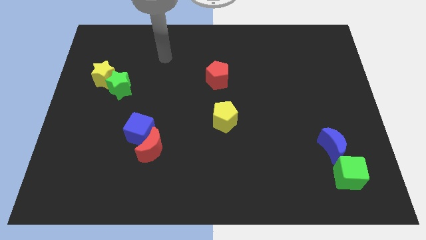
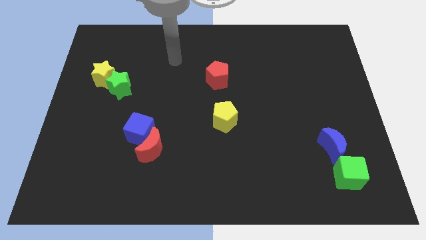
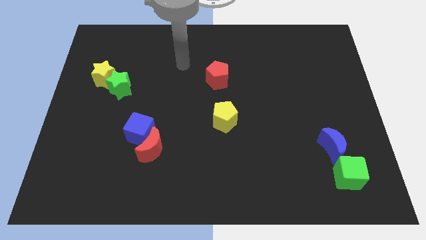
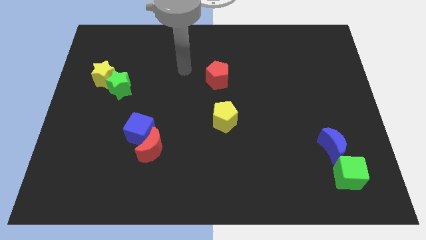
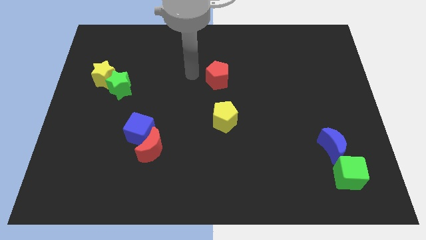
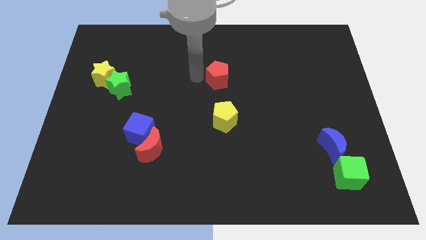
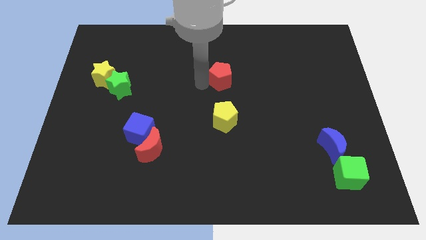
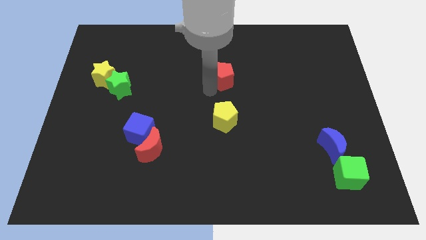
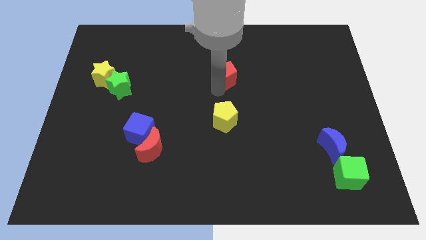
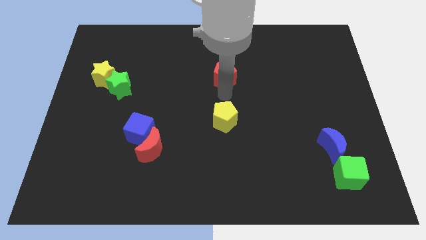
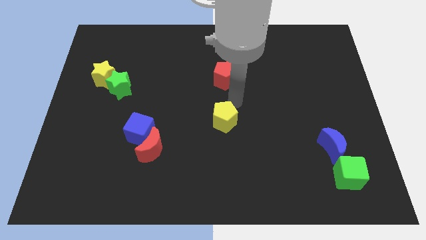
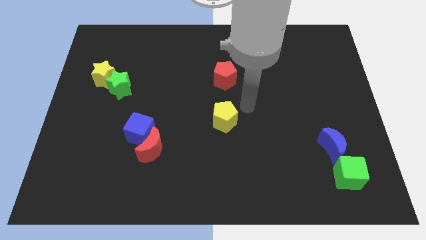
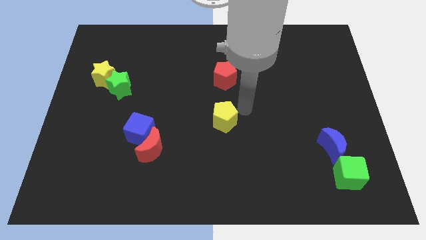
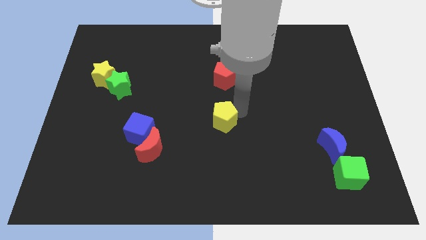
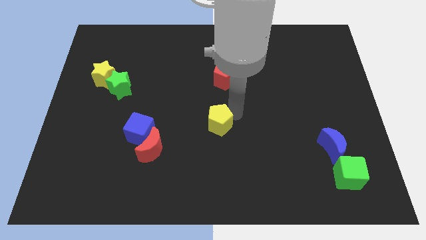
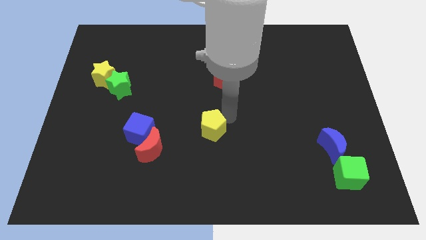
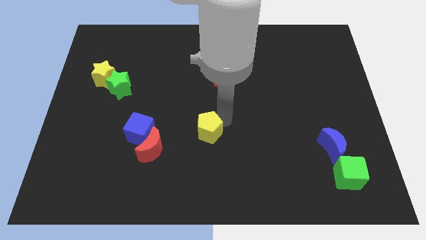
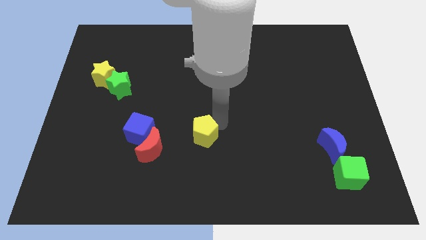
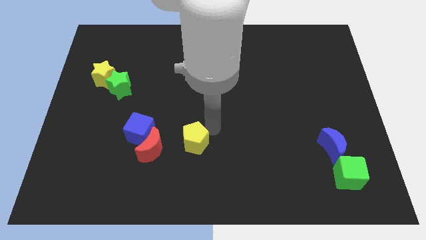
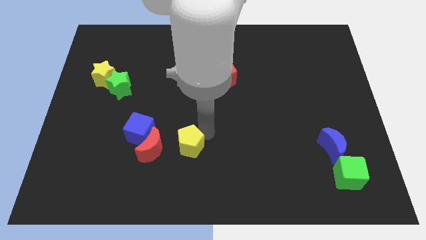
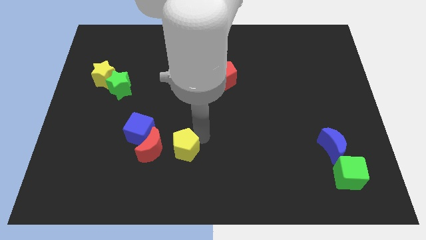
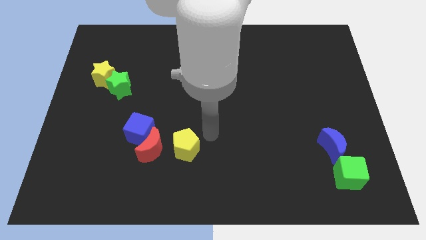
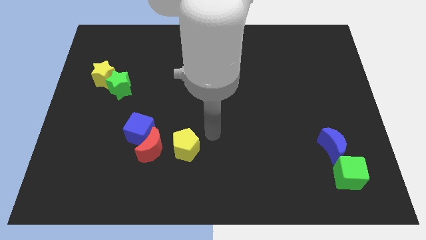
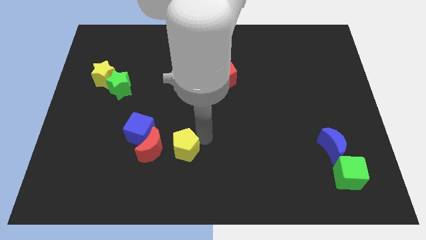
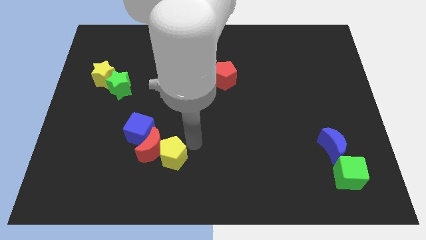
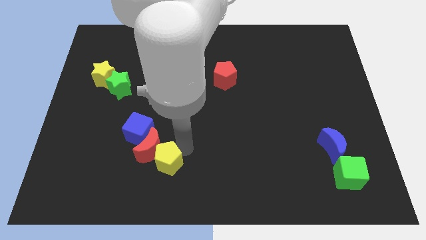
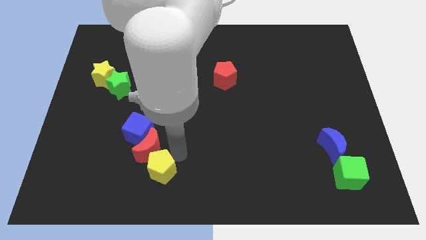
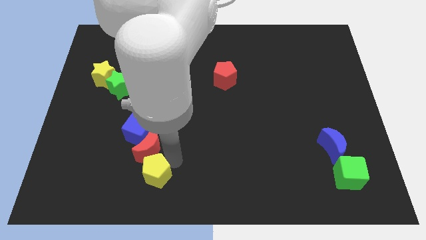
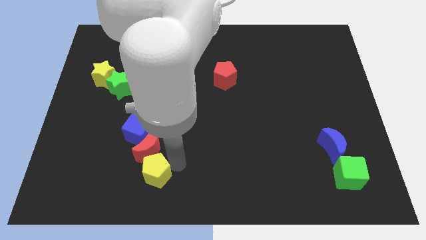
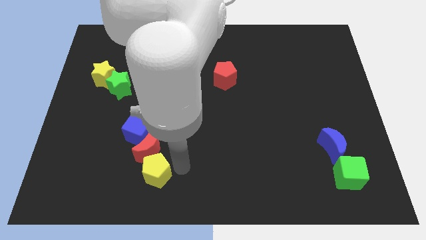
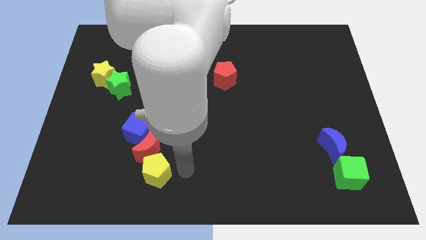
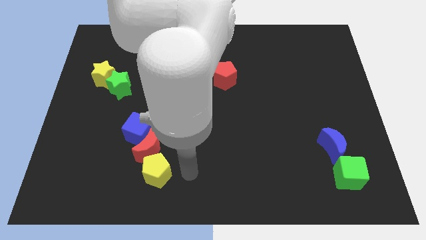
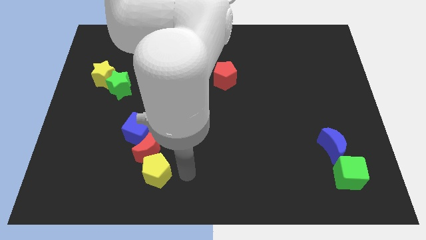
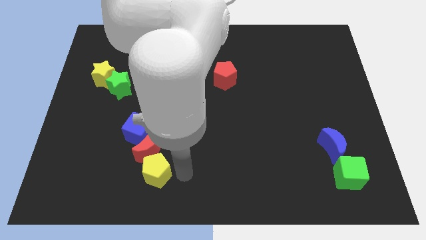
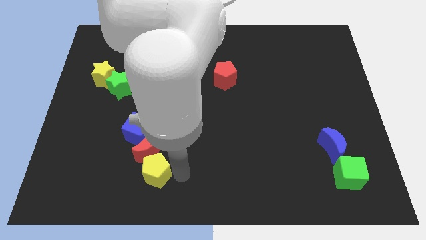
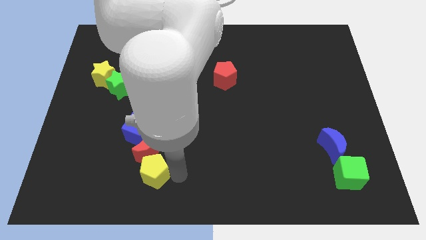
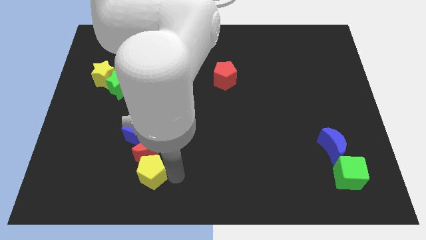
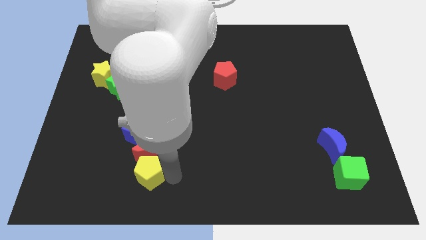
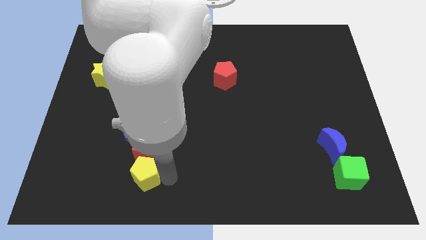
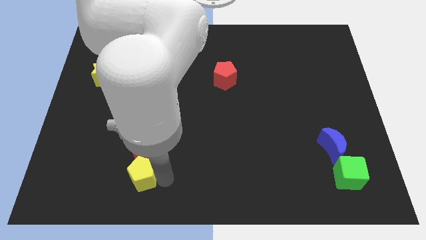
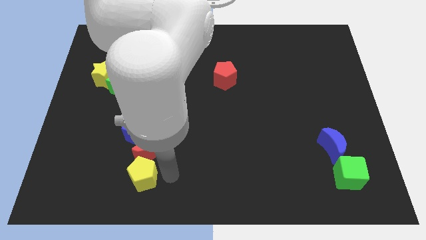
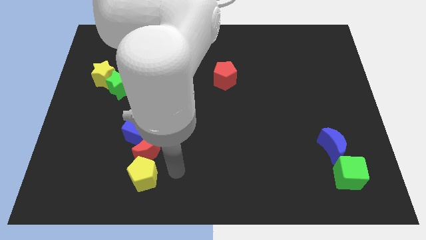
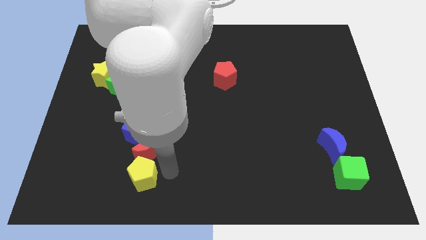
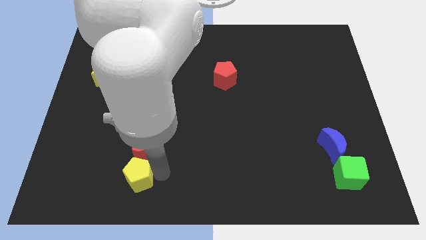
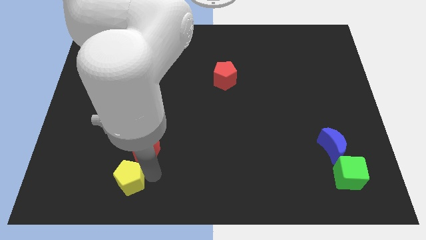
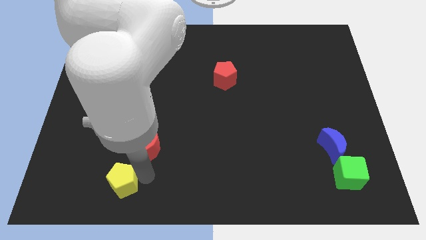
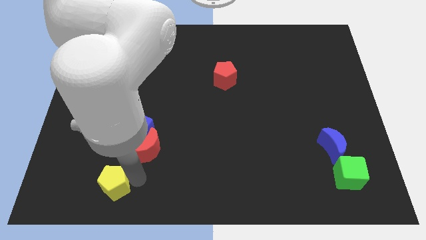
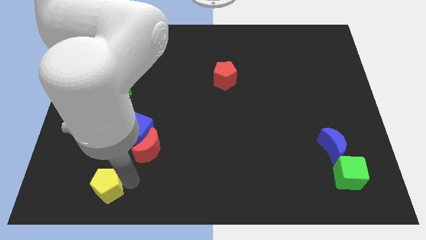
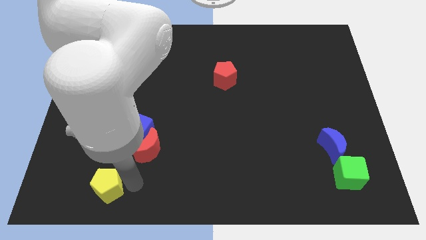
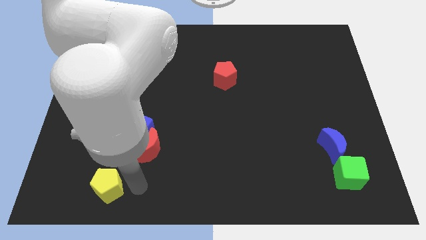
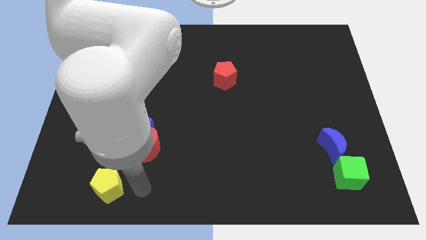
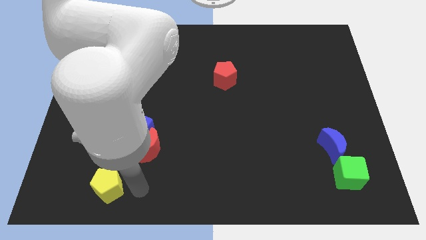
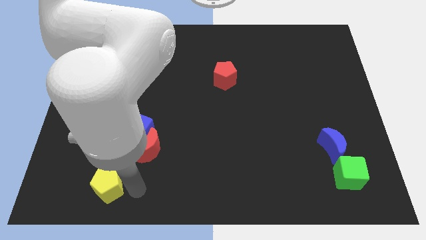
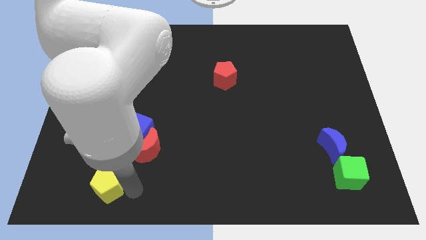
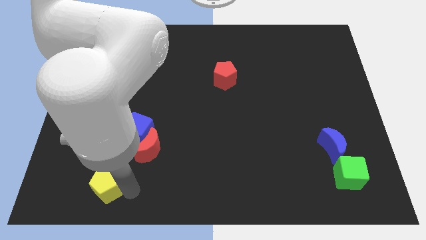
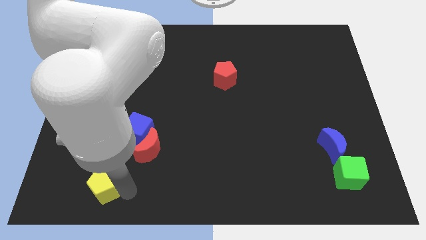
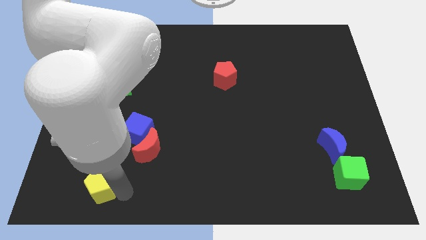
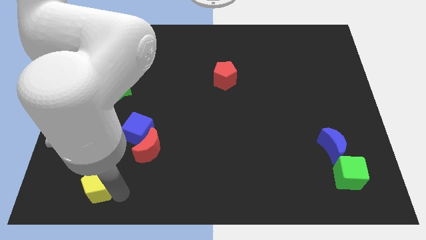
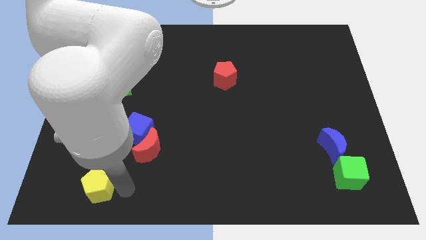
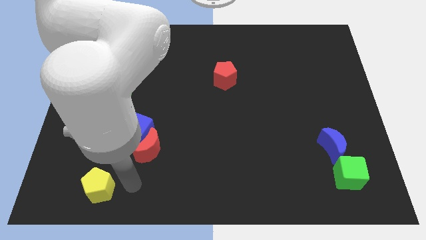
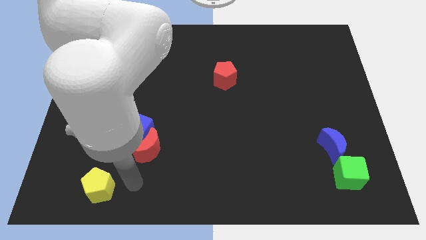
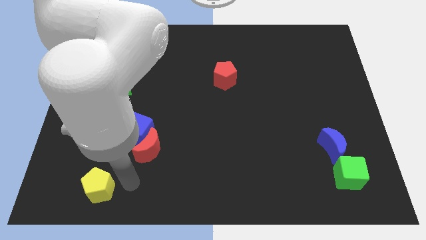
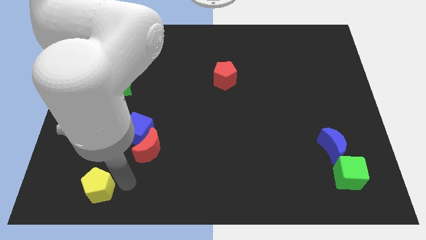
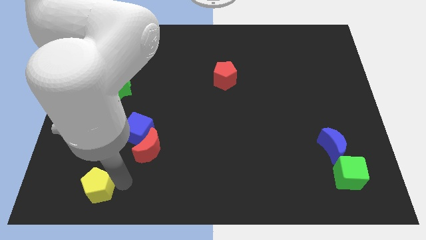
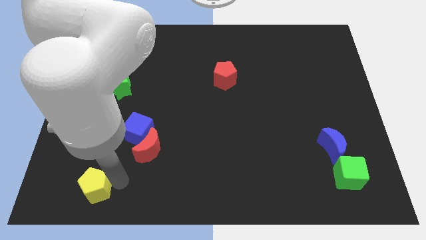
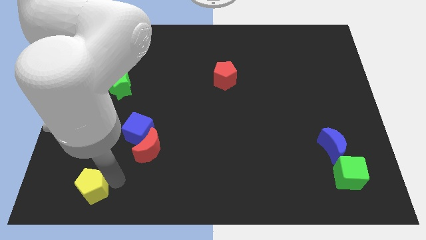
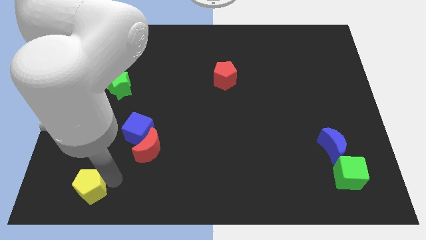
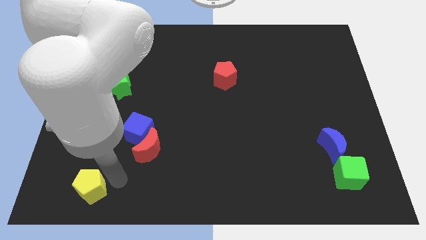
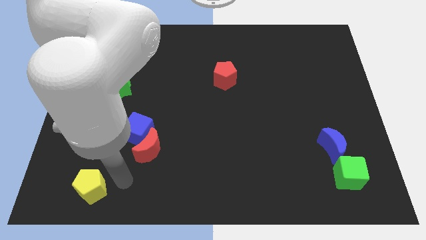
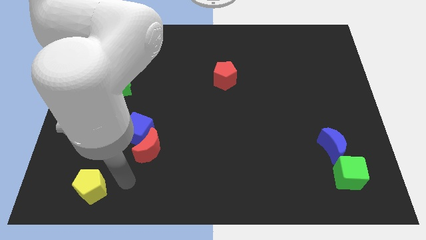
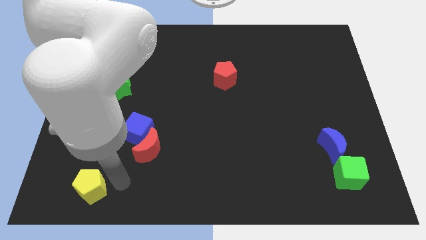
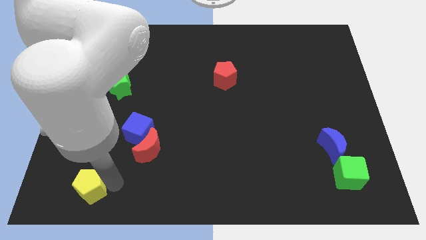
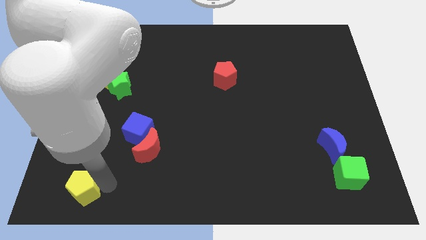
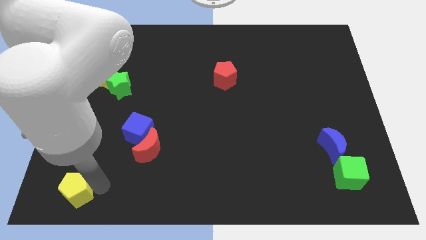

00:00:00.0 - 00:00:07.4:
put the yellow pentagon to the bottom left
